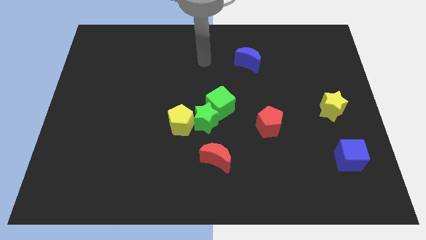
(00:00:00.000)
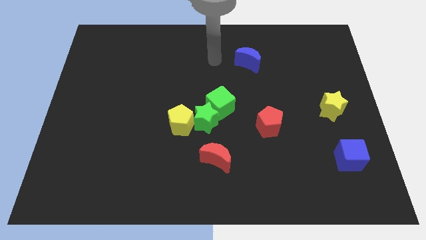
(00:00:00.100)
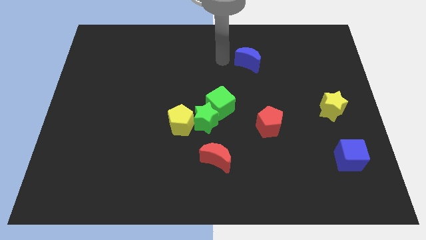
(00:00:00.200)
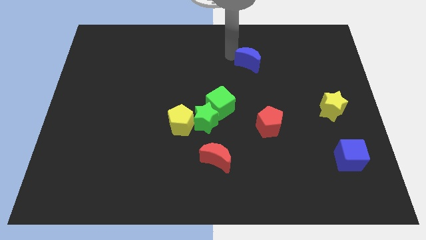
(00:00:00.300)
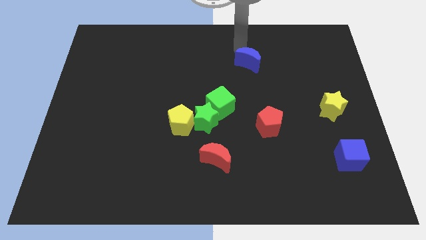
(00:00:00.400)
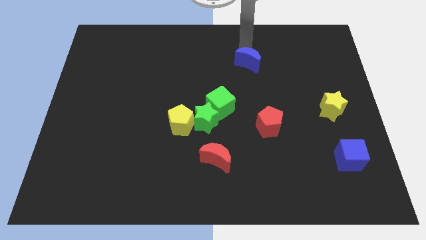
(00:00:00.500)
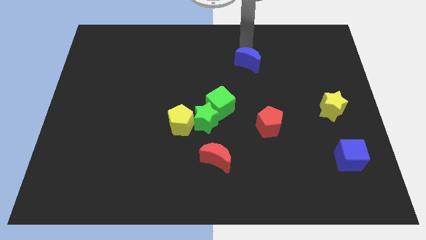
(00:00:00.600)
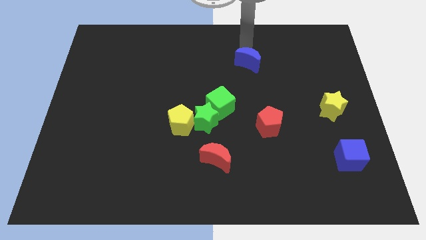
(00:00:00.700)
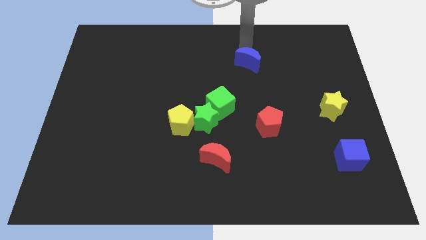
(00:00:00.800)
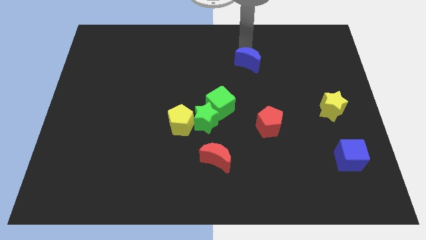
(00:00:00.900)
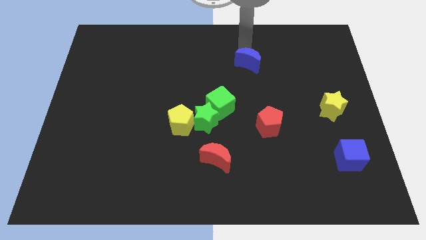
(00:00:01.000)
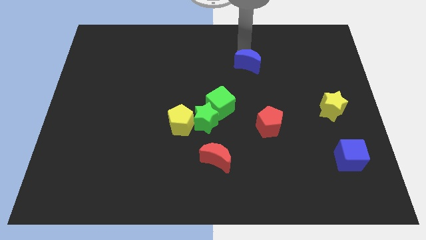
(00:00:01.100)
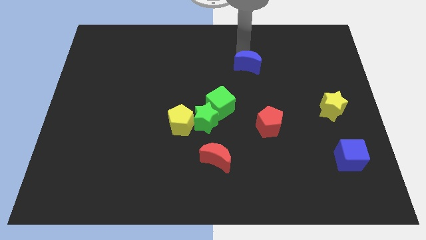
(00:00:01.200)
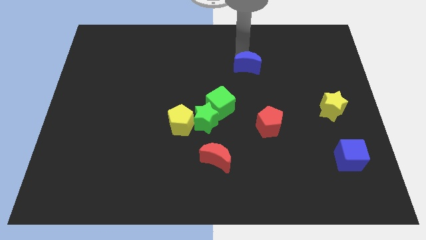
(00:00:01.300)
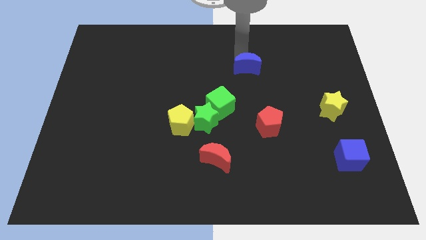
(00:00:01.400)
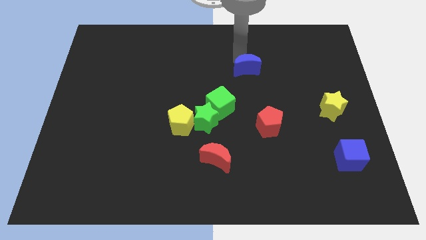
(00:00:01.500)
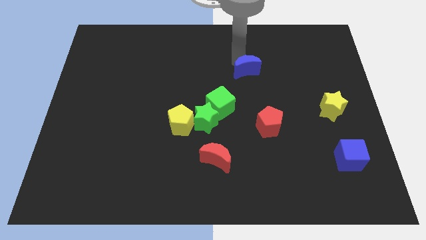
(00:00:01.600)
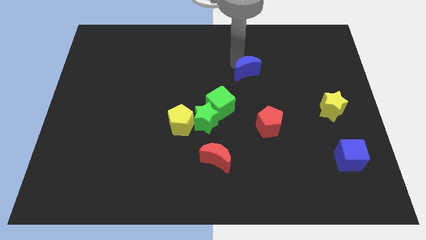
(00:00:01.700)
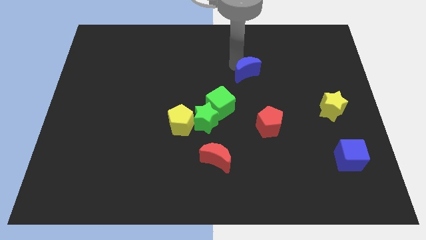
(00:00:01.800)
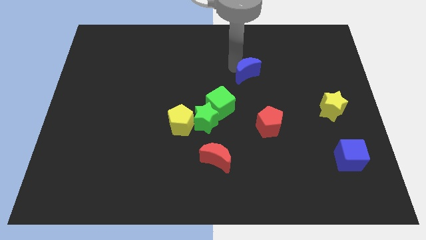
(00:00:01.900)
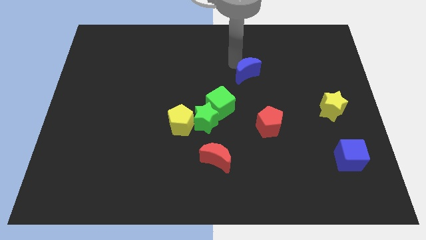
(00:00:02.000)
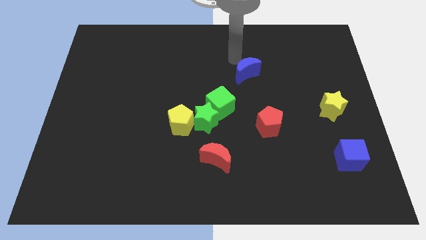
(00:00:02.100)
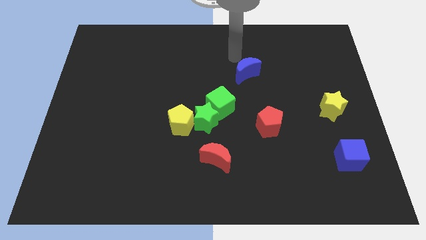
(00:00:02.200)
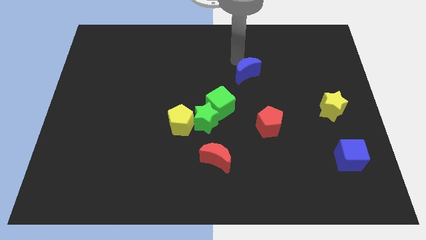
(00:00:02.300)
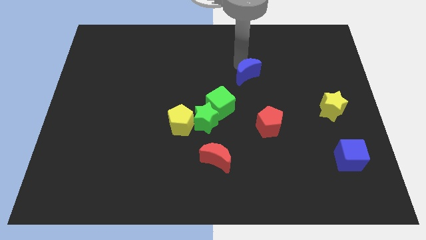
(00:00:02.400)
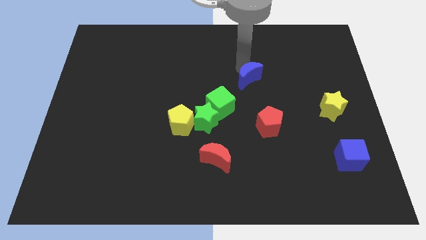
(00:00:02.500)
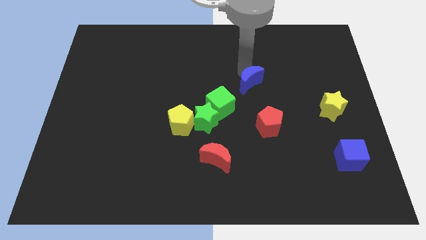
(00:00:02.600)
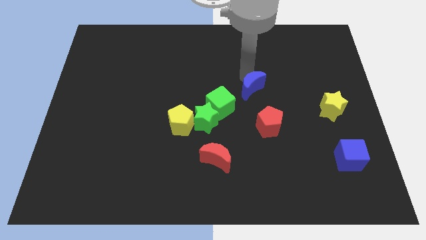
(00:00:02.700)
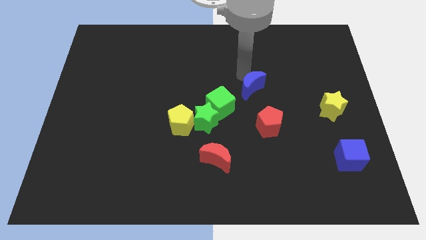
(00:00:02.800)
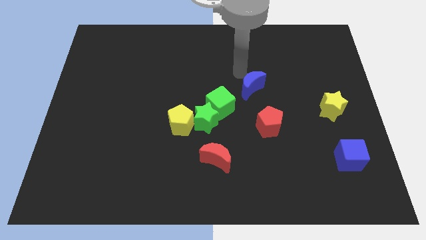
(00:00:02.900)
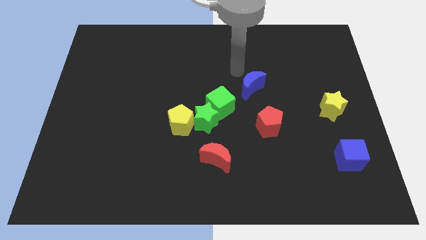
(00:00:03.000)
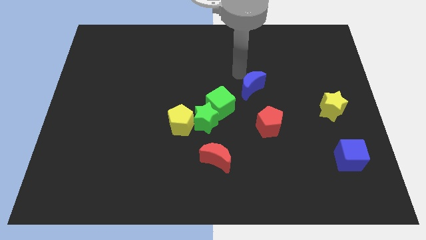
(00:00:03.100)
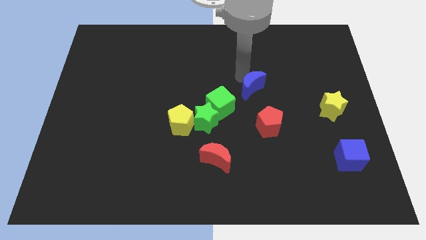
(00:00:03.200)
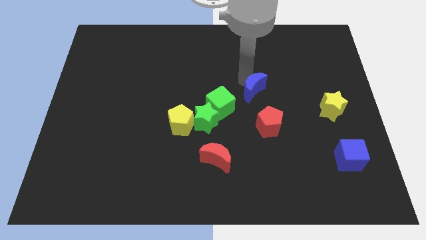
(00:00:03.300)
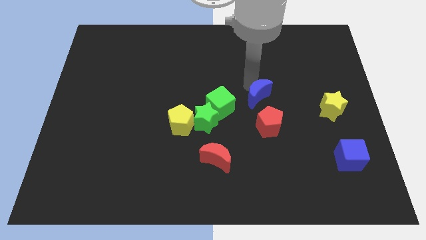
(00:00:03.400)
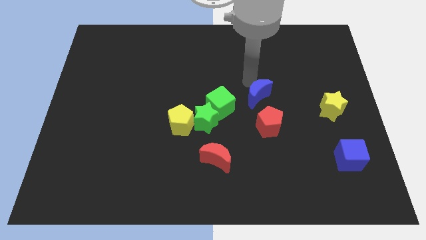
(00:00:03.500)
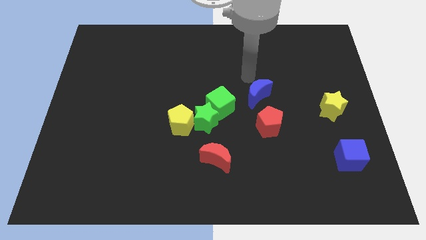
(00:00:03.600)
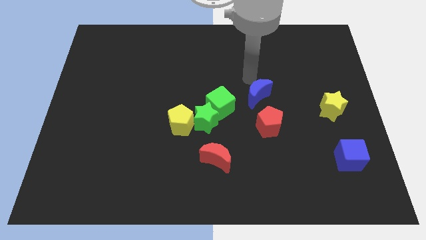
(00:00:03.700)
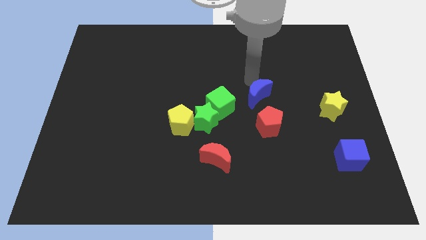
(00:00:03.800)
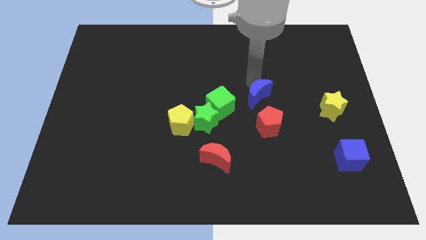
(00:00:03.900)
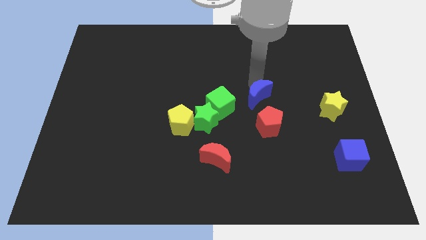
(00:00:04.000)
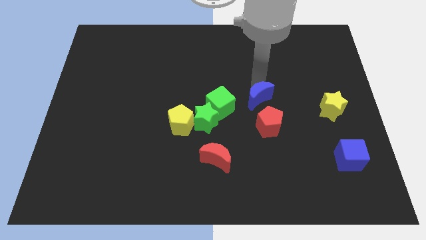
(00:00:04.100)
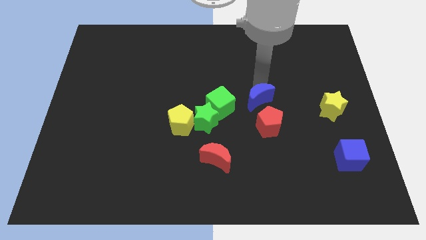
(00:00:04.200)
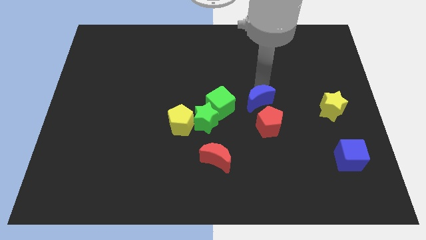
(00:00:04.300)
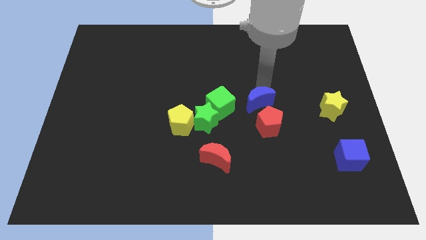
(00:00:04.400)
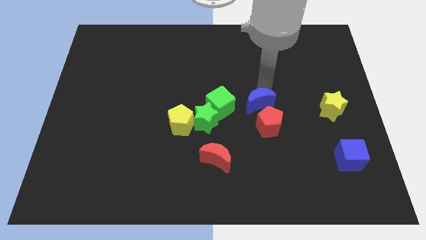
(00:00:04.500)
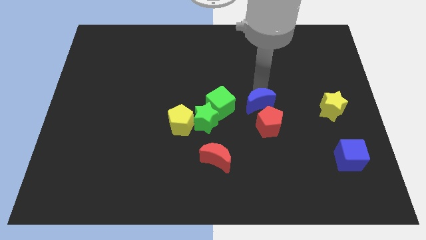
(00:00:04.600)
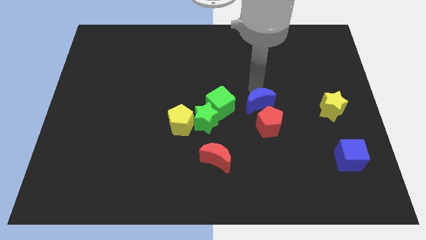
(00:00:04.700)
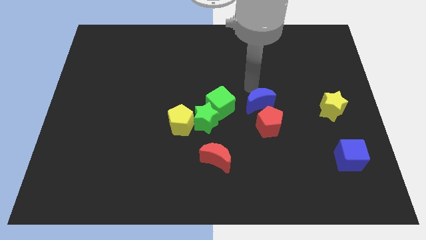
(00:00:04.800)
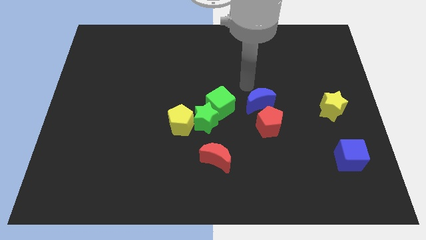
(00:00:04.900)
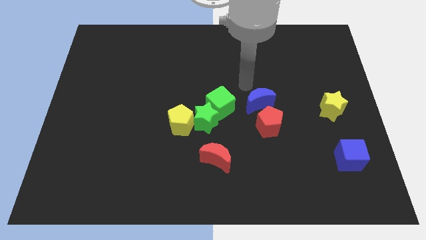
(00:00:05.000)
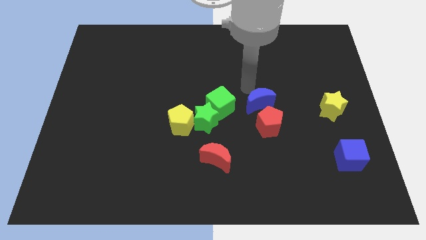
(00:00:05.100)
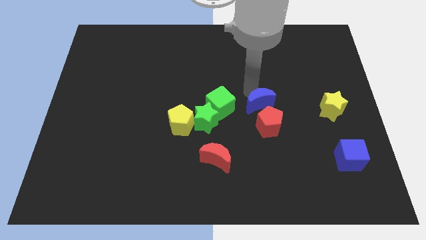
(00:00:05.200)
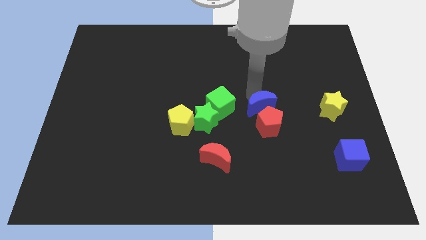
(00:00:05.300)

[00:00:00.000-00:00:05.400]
put the blue moon close to the red pentagon

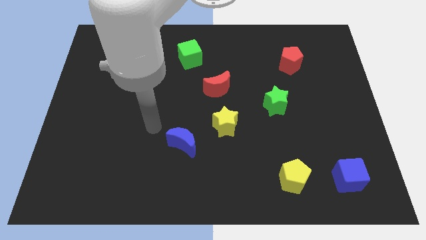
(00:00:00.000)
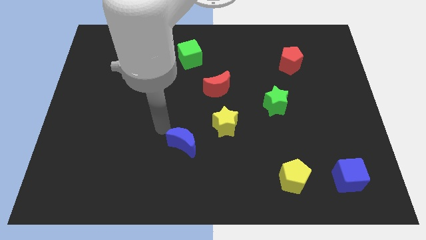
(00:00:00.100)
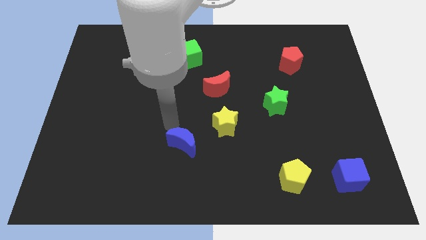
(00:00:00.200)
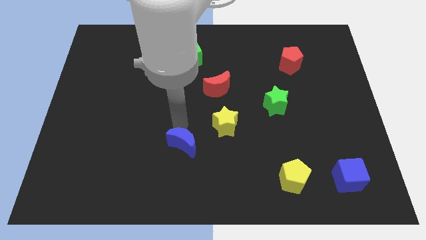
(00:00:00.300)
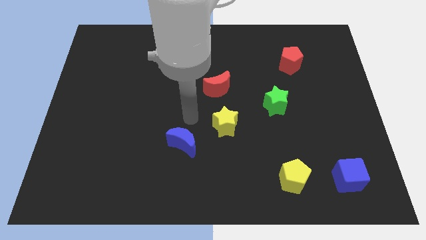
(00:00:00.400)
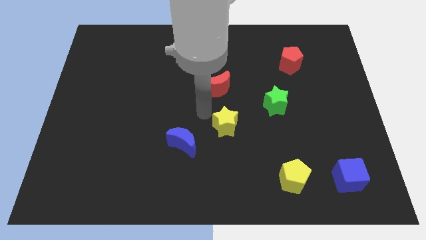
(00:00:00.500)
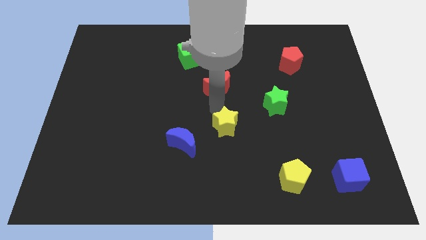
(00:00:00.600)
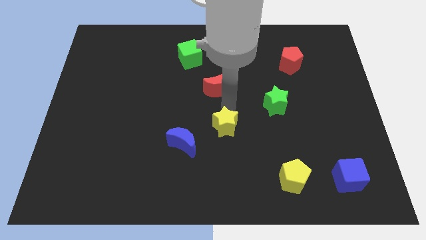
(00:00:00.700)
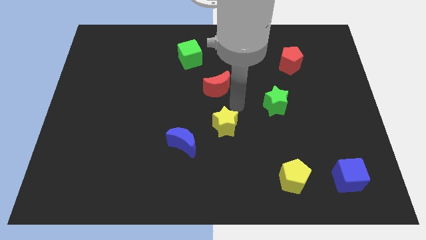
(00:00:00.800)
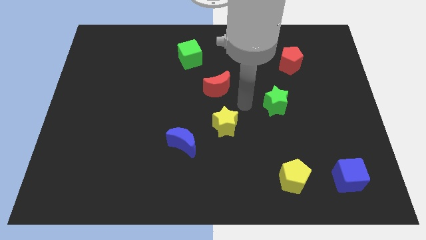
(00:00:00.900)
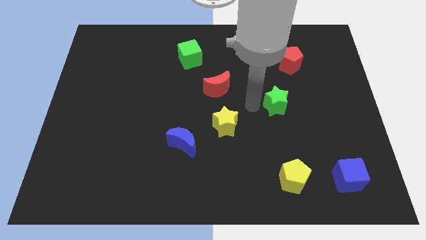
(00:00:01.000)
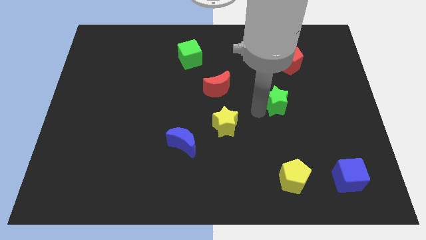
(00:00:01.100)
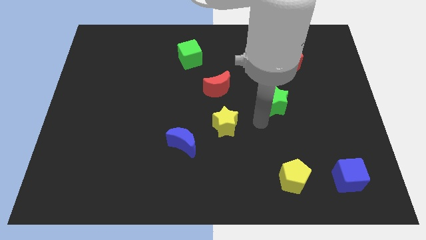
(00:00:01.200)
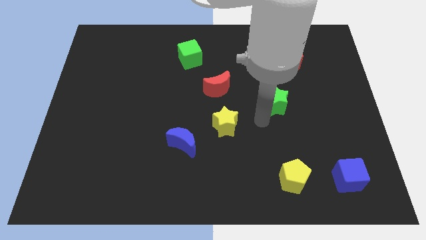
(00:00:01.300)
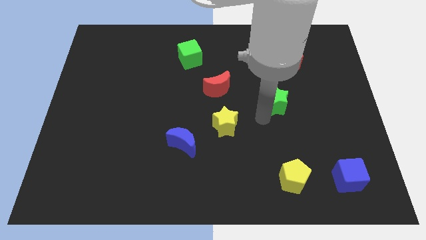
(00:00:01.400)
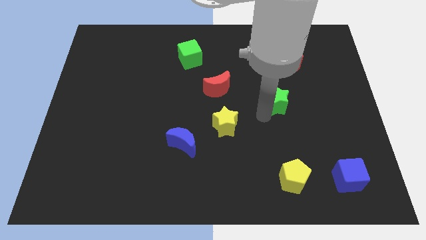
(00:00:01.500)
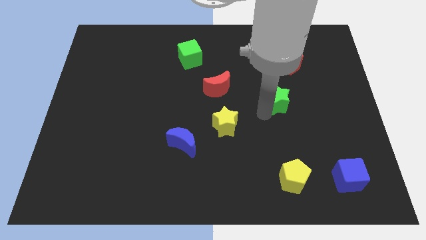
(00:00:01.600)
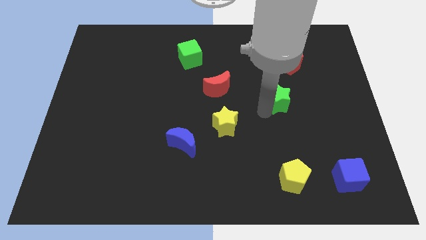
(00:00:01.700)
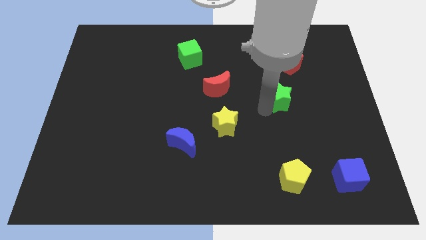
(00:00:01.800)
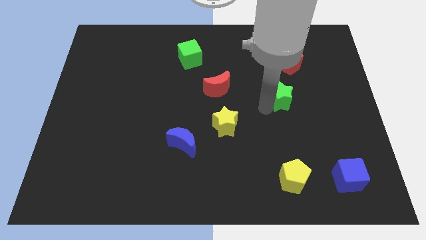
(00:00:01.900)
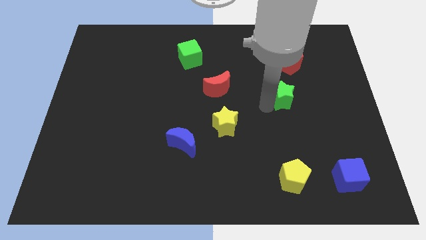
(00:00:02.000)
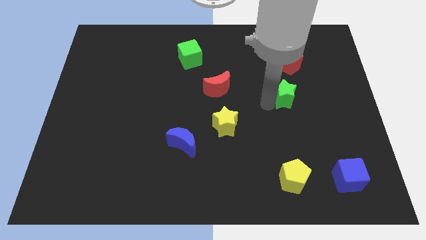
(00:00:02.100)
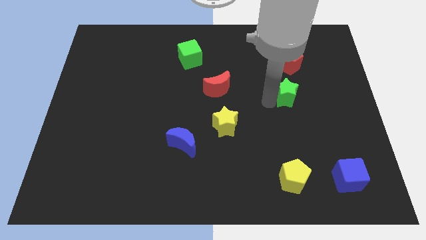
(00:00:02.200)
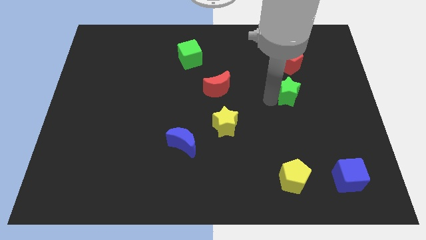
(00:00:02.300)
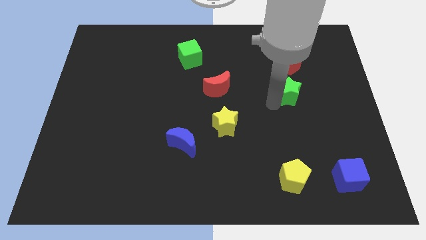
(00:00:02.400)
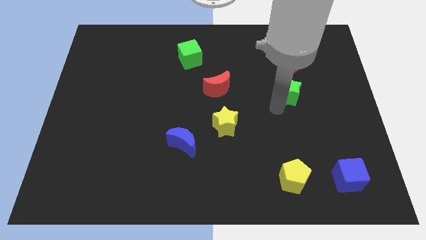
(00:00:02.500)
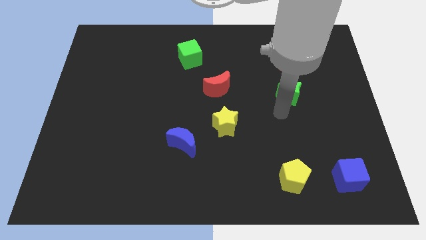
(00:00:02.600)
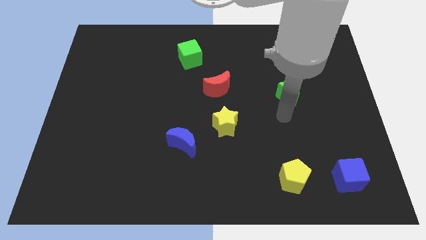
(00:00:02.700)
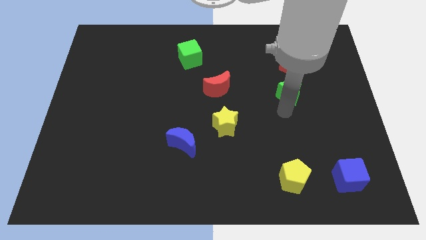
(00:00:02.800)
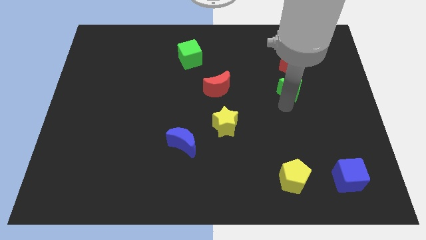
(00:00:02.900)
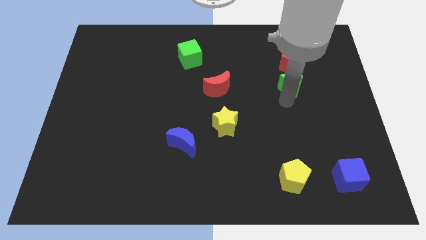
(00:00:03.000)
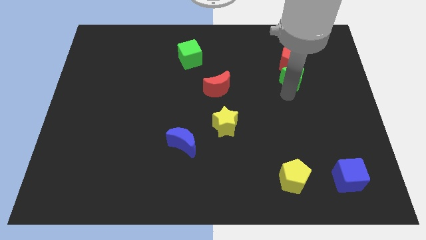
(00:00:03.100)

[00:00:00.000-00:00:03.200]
slide the green star close to the red pentagon
